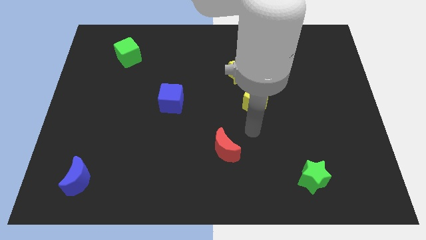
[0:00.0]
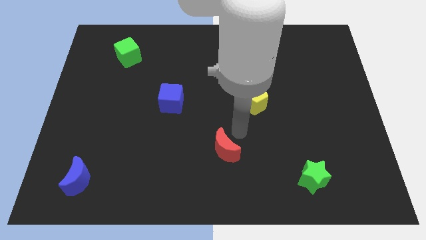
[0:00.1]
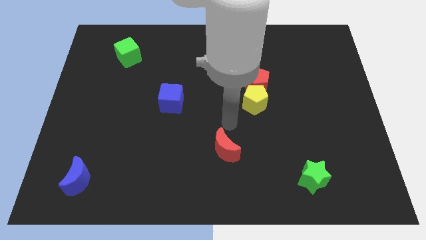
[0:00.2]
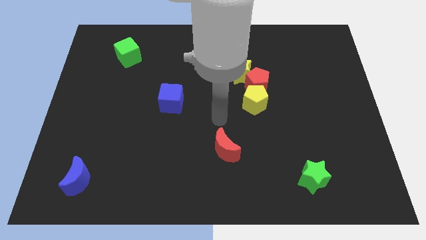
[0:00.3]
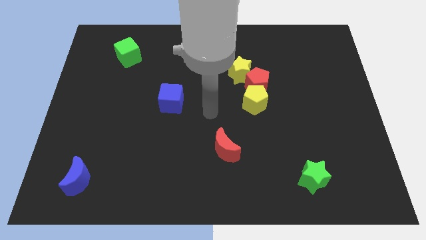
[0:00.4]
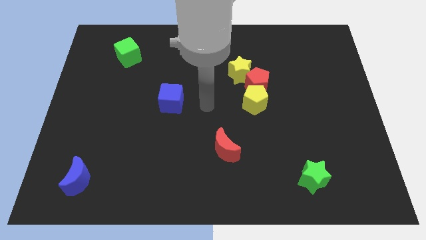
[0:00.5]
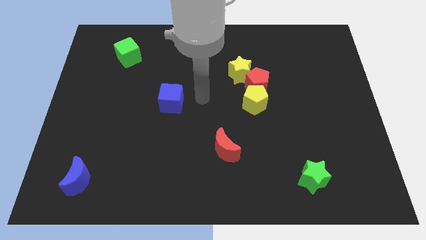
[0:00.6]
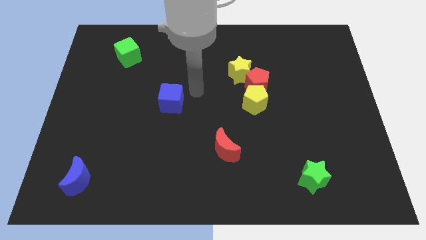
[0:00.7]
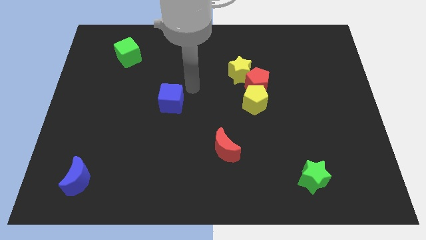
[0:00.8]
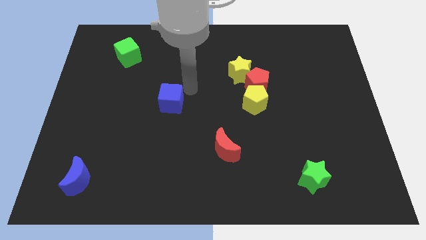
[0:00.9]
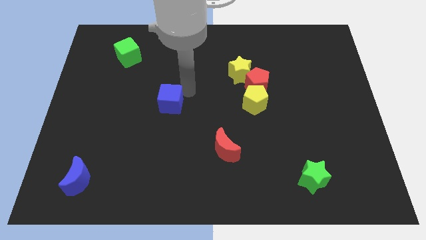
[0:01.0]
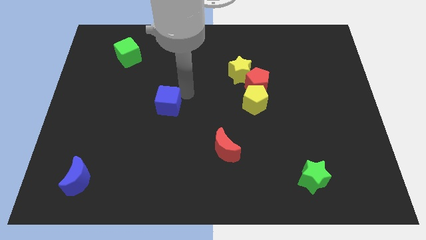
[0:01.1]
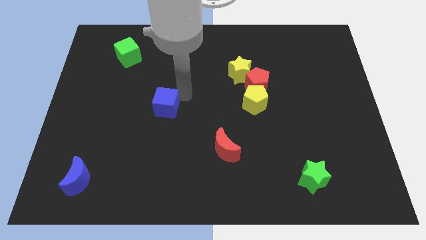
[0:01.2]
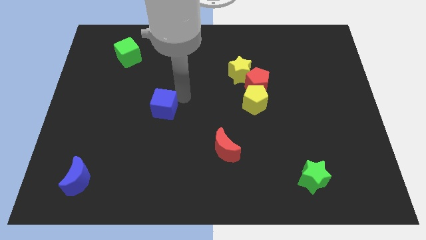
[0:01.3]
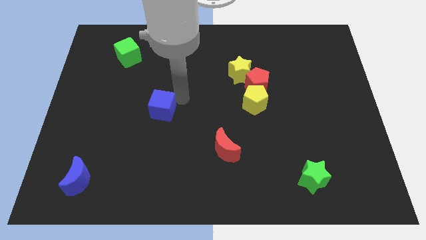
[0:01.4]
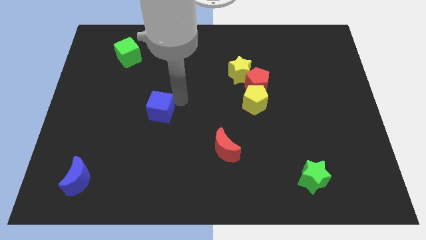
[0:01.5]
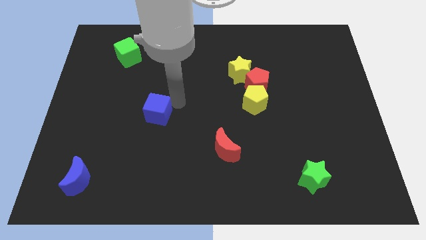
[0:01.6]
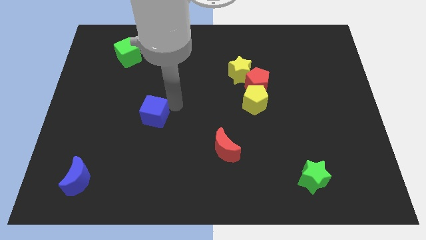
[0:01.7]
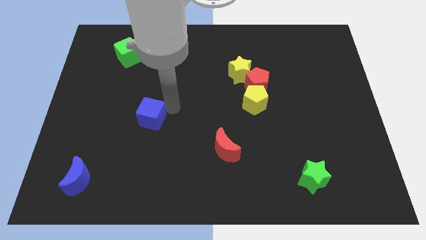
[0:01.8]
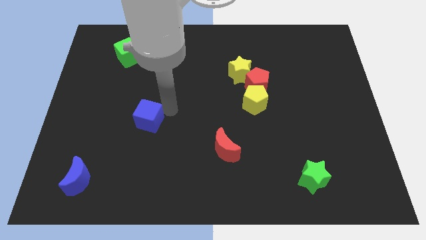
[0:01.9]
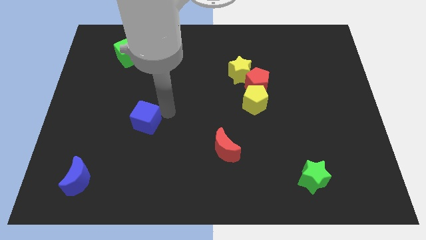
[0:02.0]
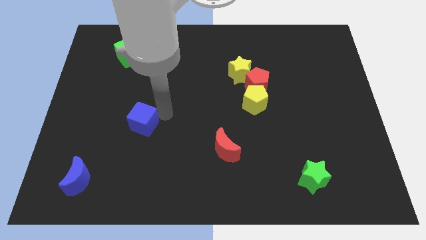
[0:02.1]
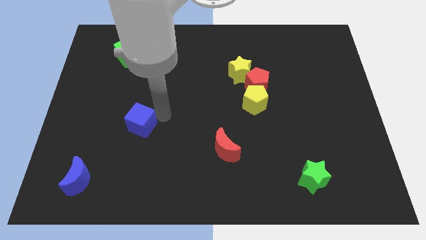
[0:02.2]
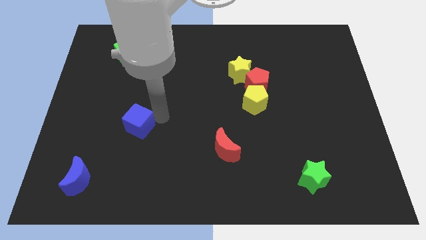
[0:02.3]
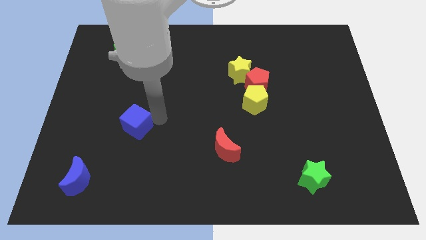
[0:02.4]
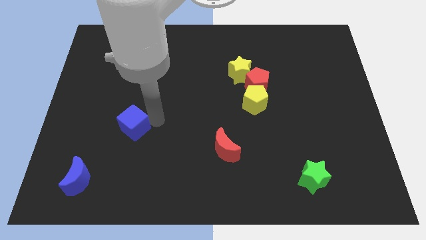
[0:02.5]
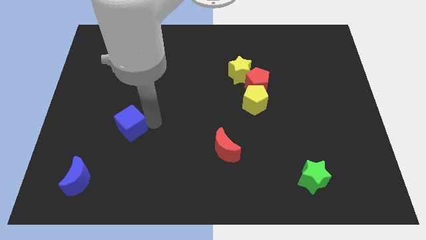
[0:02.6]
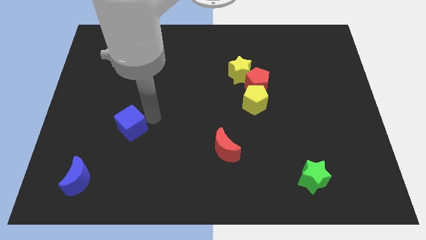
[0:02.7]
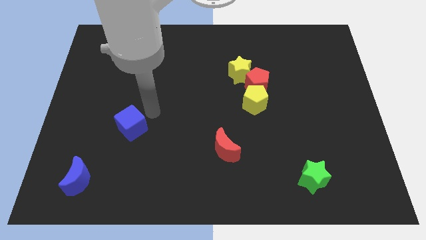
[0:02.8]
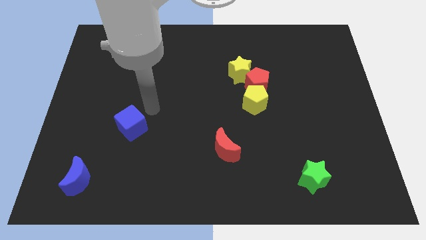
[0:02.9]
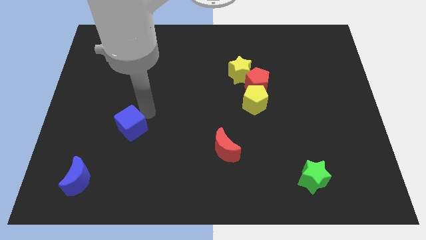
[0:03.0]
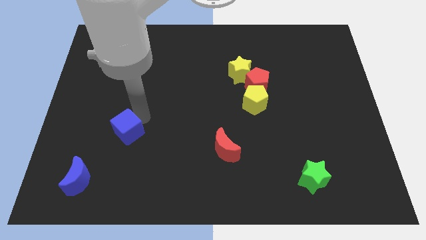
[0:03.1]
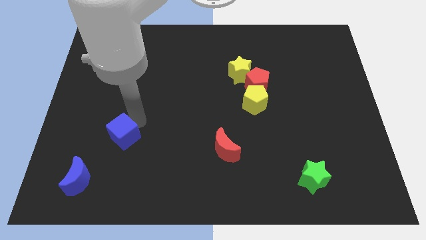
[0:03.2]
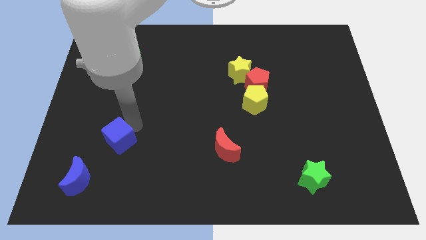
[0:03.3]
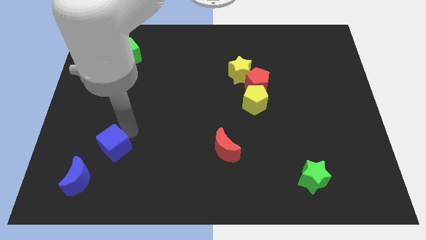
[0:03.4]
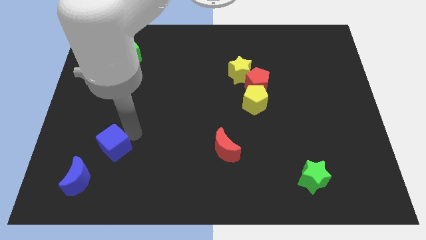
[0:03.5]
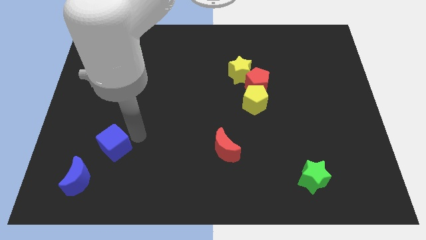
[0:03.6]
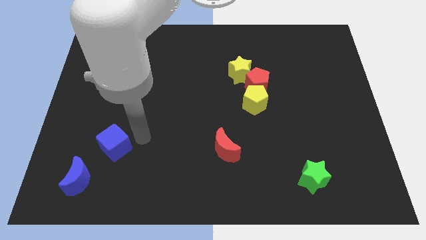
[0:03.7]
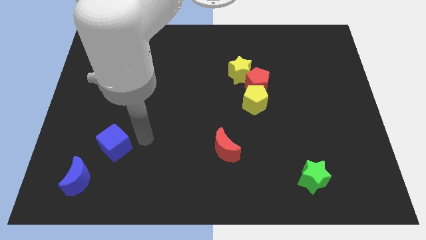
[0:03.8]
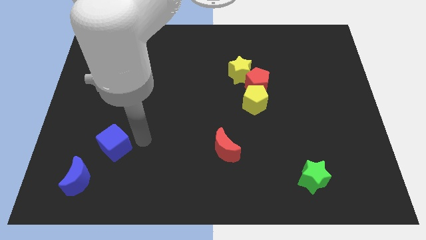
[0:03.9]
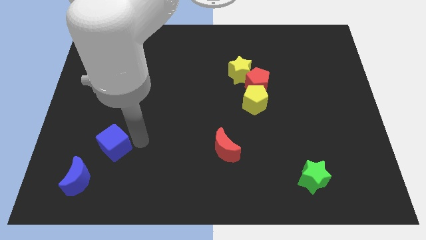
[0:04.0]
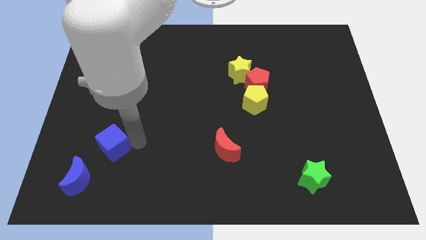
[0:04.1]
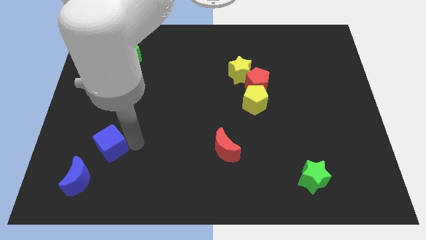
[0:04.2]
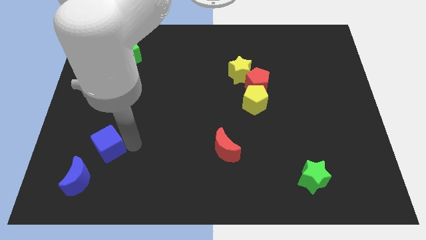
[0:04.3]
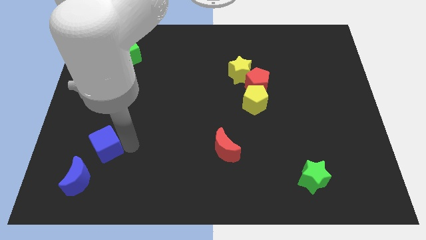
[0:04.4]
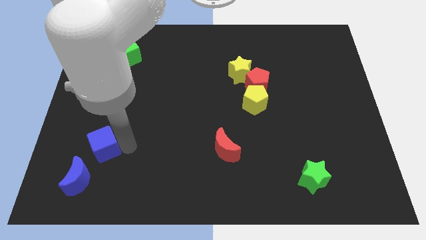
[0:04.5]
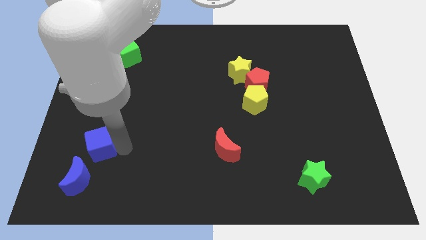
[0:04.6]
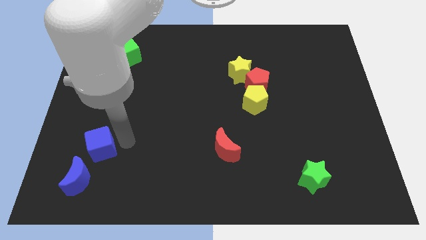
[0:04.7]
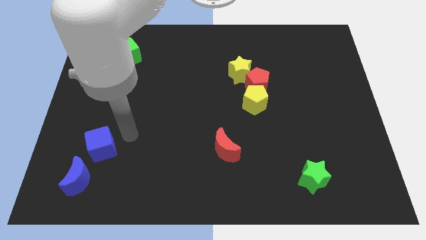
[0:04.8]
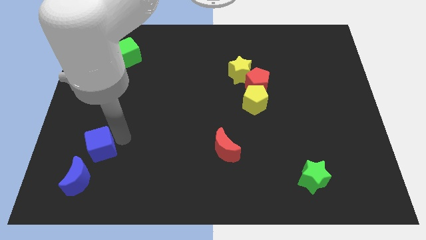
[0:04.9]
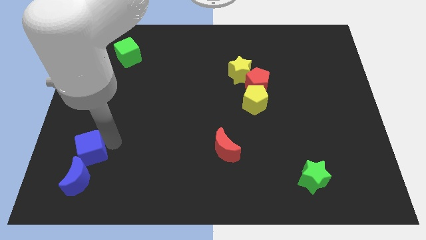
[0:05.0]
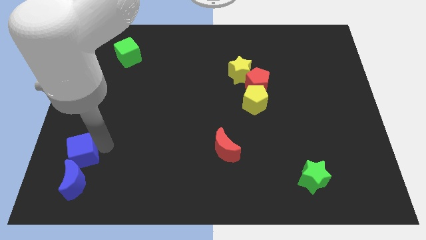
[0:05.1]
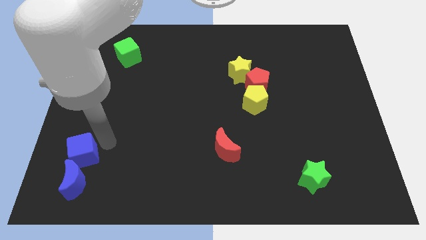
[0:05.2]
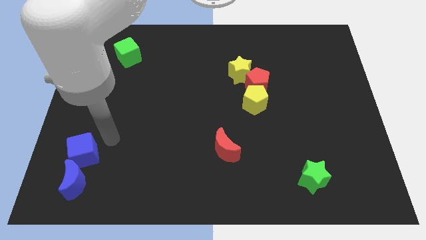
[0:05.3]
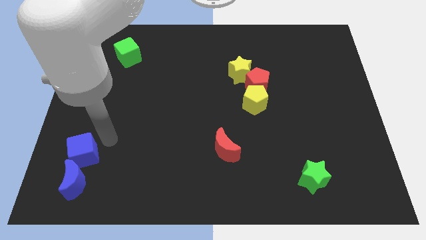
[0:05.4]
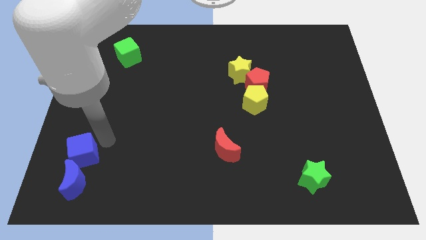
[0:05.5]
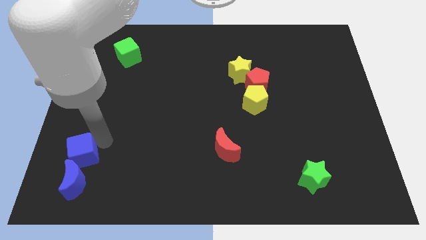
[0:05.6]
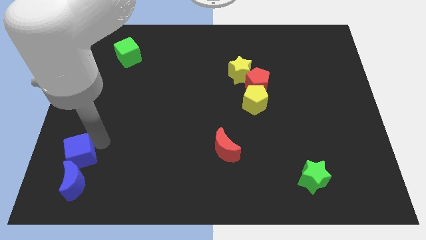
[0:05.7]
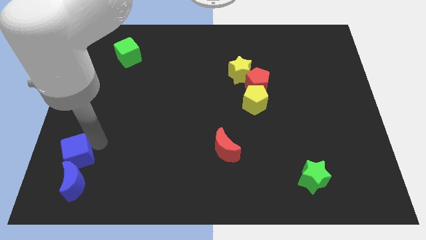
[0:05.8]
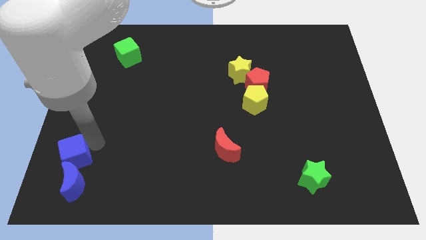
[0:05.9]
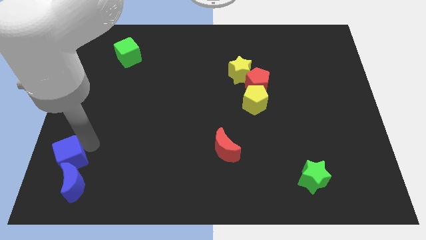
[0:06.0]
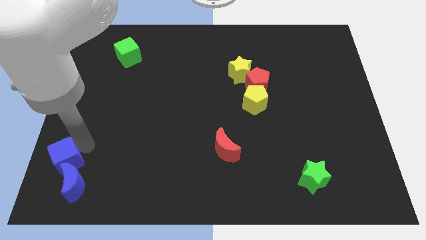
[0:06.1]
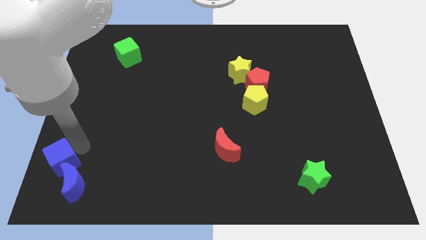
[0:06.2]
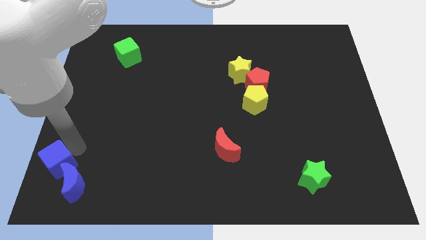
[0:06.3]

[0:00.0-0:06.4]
push the blue cube to the lower left corner
